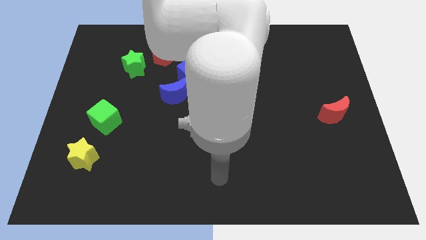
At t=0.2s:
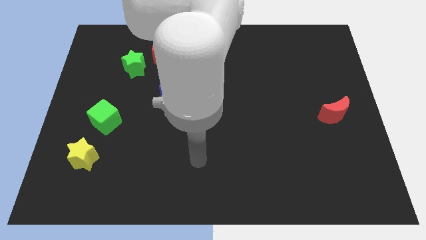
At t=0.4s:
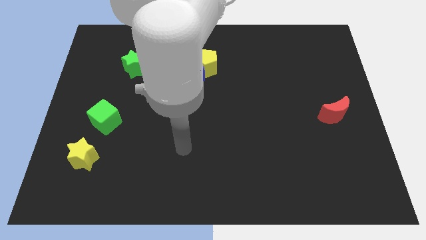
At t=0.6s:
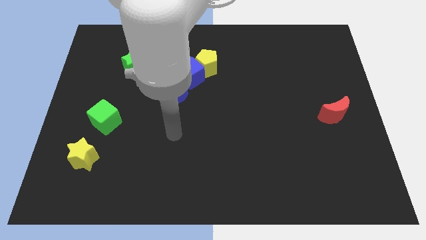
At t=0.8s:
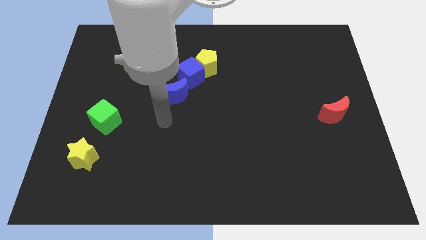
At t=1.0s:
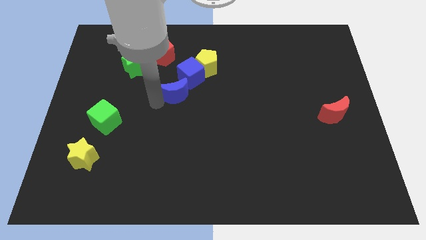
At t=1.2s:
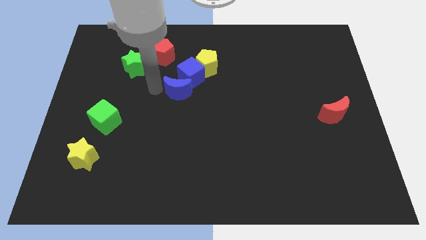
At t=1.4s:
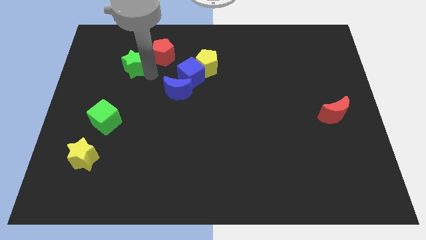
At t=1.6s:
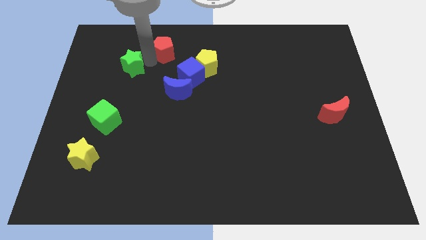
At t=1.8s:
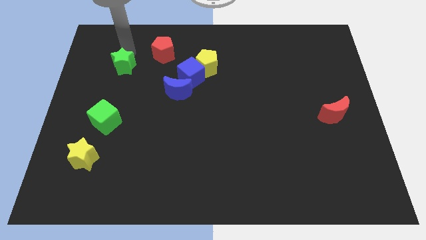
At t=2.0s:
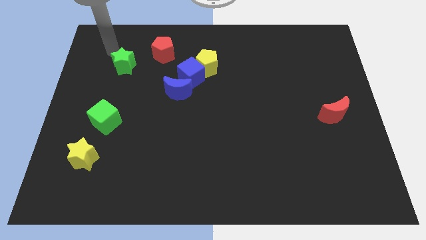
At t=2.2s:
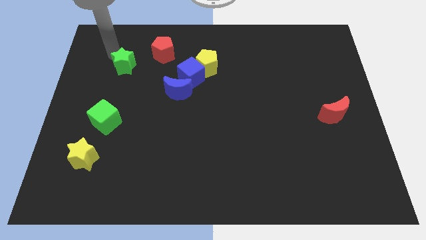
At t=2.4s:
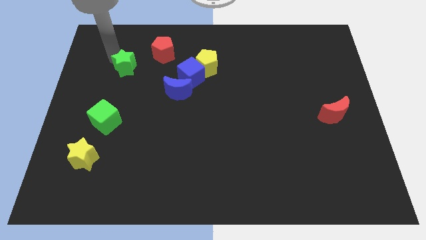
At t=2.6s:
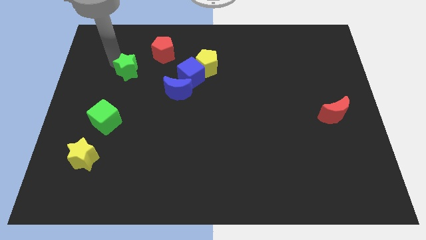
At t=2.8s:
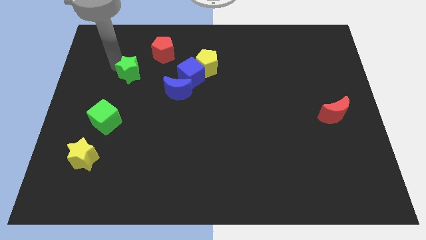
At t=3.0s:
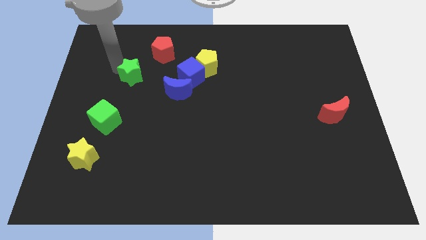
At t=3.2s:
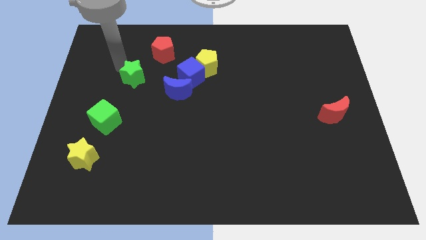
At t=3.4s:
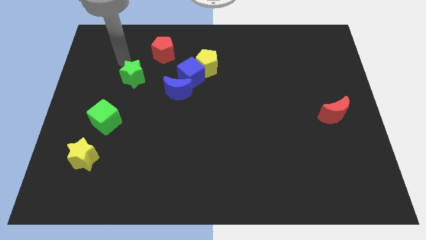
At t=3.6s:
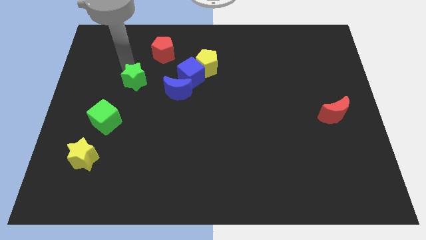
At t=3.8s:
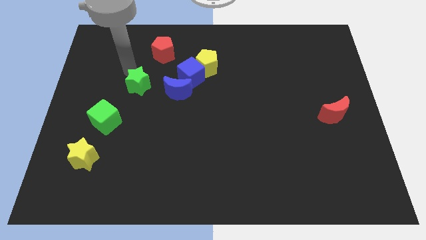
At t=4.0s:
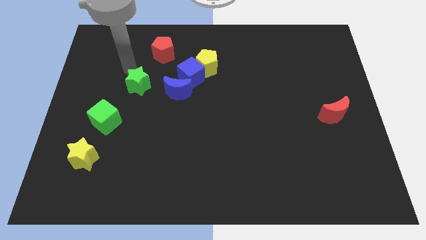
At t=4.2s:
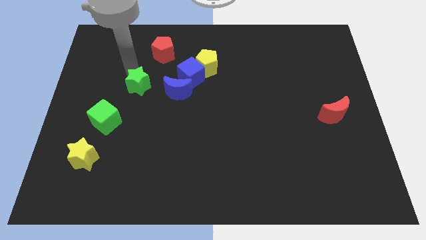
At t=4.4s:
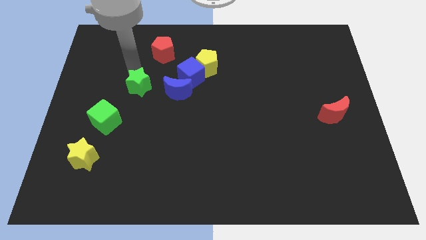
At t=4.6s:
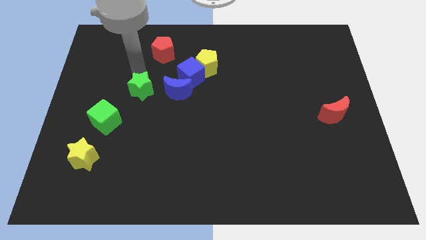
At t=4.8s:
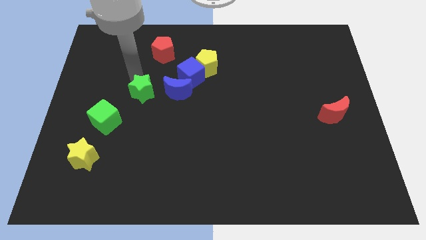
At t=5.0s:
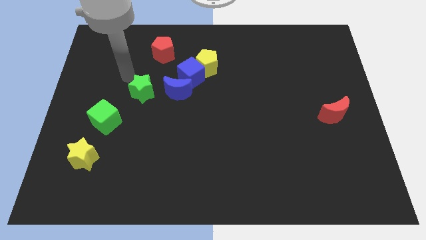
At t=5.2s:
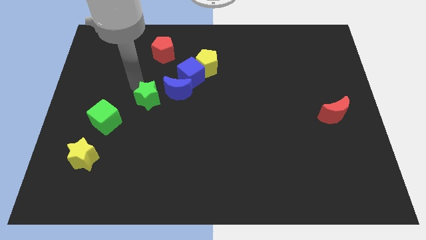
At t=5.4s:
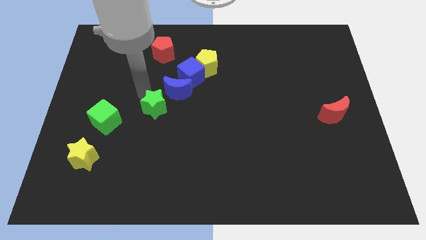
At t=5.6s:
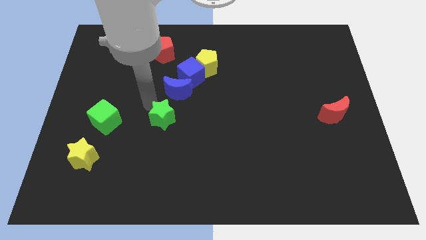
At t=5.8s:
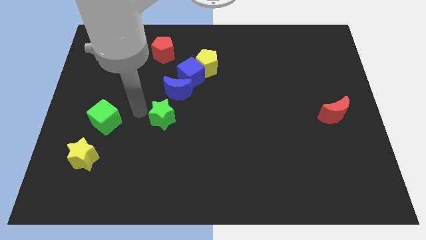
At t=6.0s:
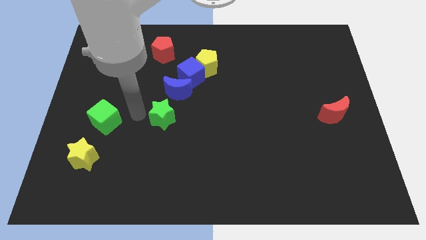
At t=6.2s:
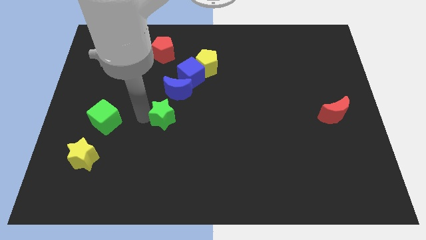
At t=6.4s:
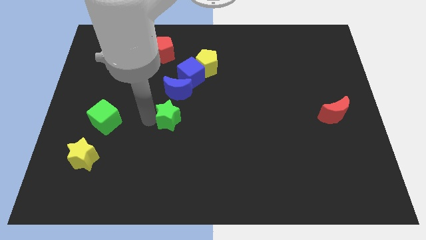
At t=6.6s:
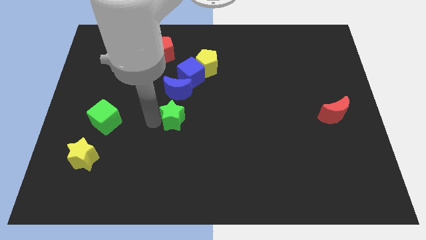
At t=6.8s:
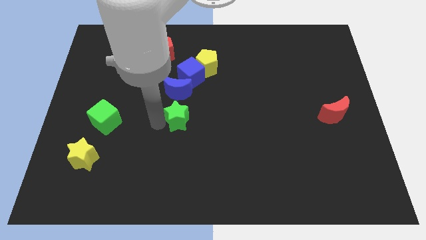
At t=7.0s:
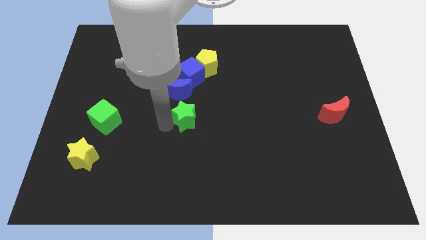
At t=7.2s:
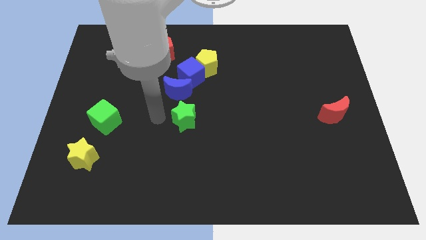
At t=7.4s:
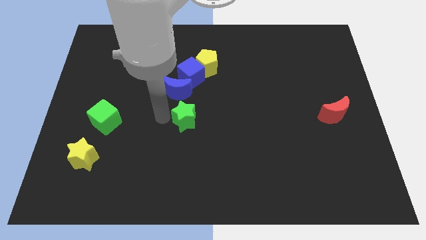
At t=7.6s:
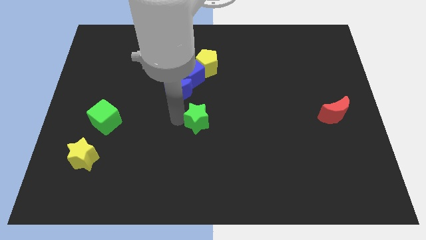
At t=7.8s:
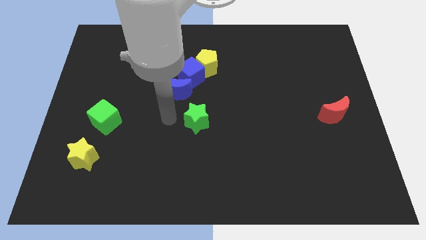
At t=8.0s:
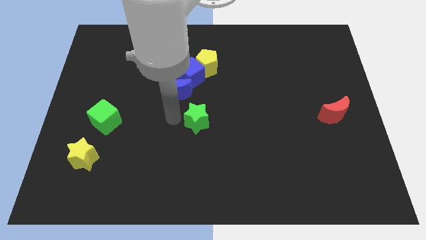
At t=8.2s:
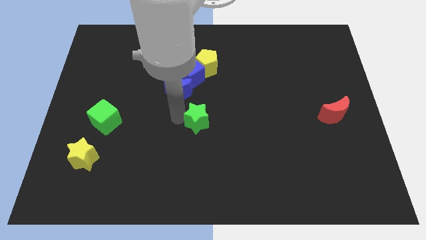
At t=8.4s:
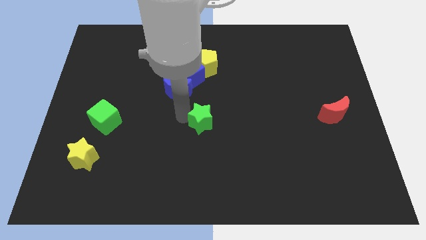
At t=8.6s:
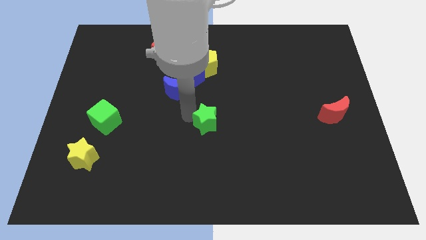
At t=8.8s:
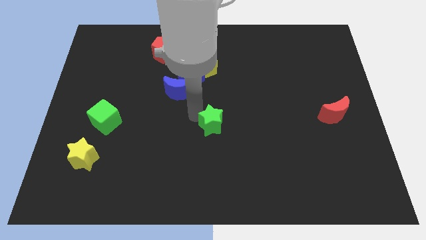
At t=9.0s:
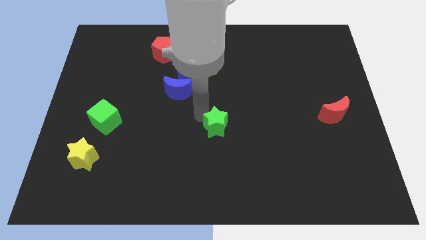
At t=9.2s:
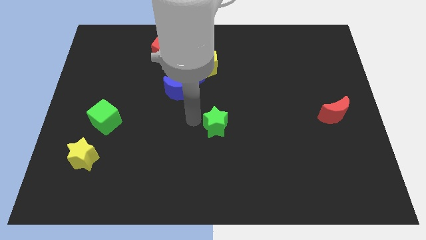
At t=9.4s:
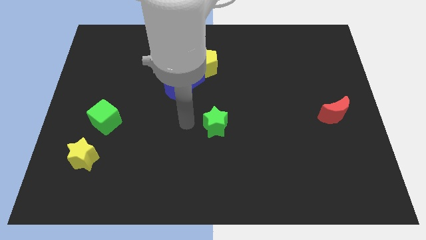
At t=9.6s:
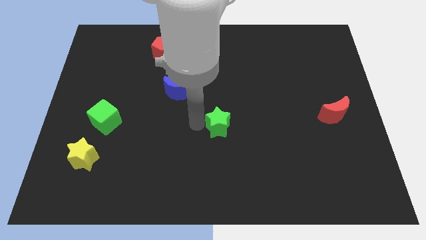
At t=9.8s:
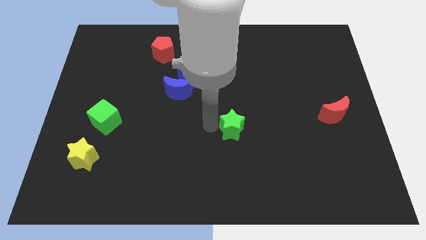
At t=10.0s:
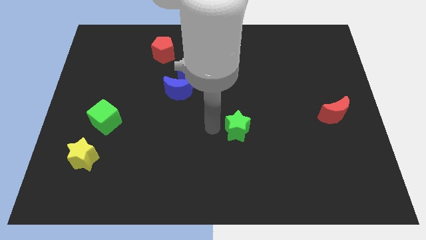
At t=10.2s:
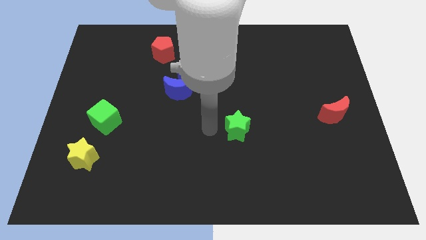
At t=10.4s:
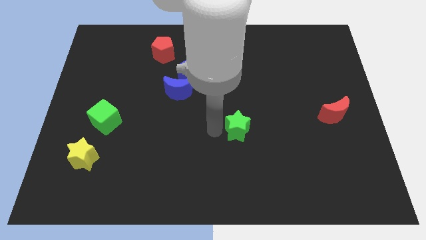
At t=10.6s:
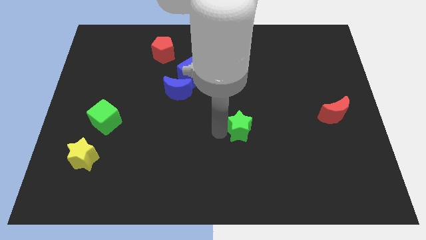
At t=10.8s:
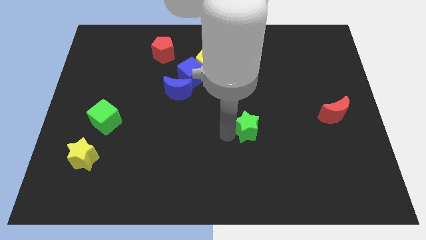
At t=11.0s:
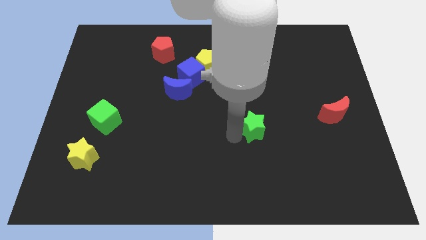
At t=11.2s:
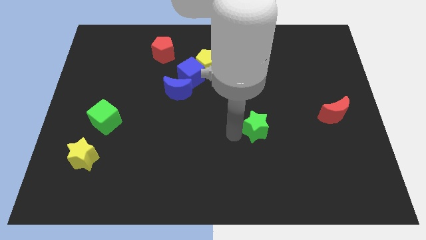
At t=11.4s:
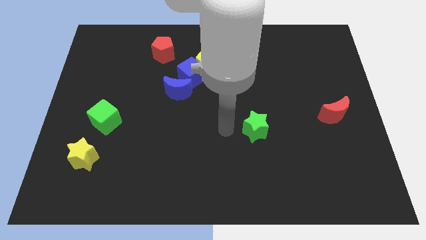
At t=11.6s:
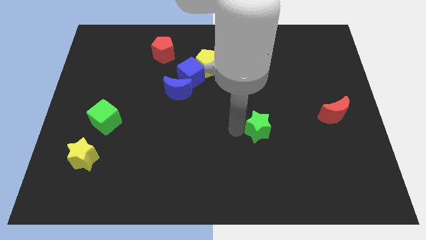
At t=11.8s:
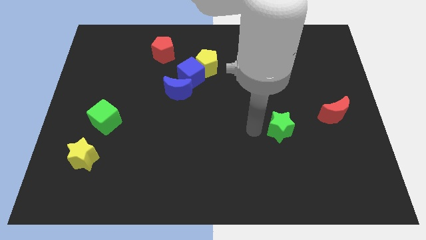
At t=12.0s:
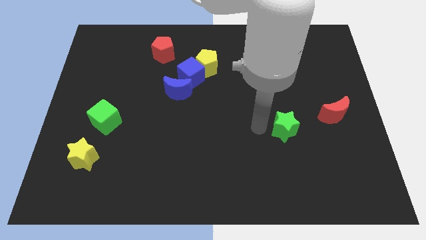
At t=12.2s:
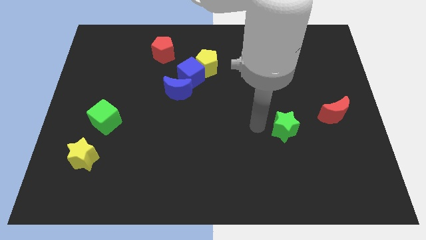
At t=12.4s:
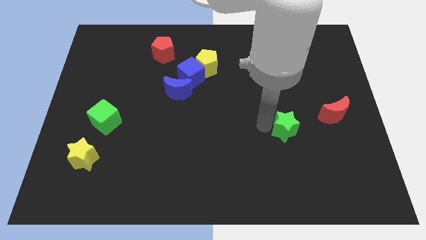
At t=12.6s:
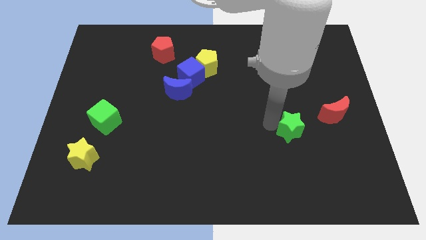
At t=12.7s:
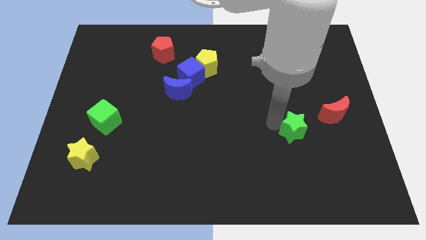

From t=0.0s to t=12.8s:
put the green star diagonally down and to the left of the red moon
